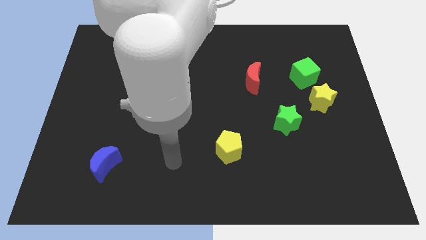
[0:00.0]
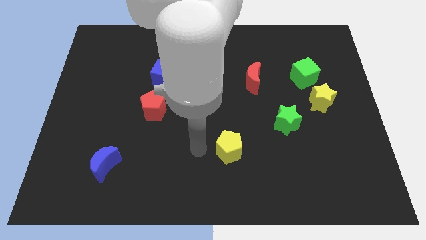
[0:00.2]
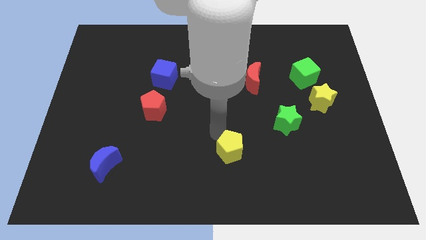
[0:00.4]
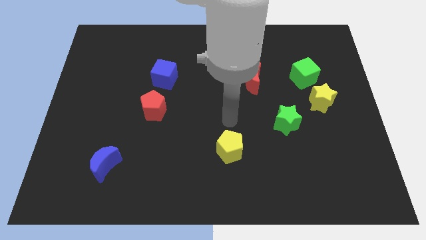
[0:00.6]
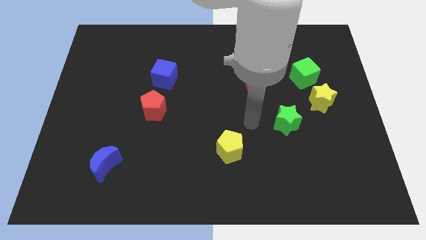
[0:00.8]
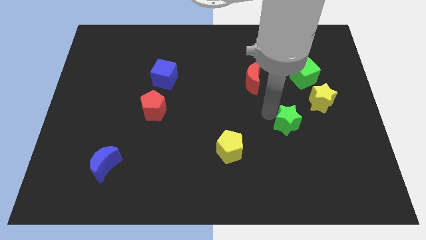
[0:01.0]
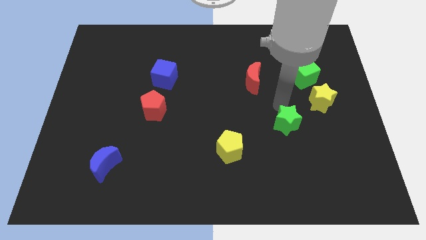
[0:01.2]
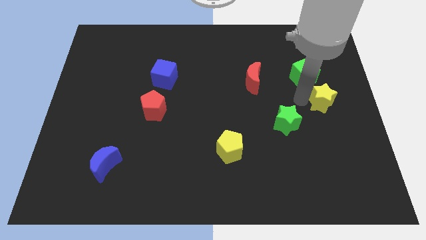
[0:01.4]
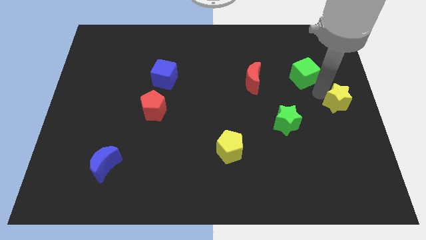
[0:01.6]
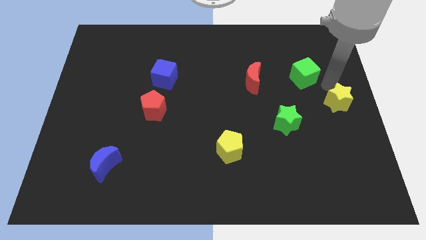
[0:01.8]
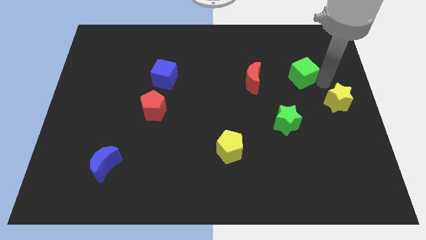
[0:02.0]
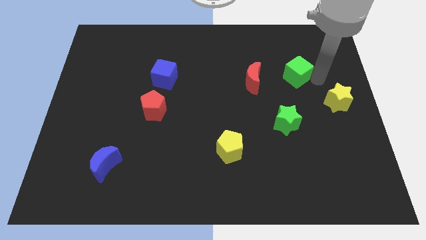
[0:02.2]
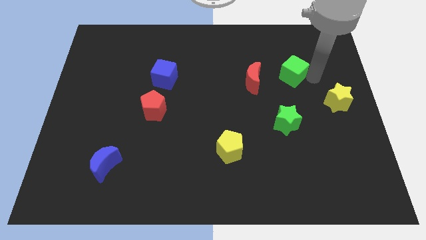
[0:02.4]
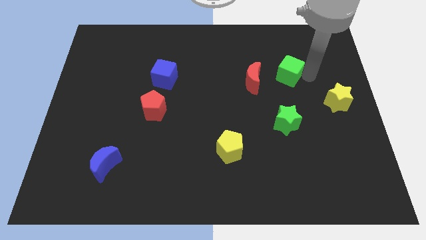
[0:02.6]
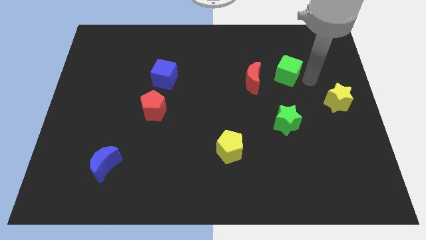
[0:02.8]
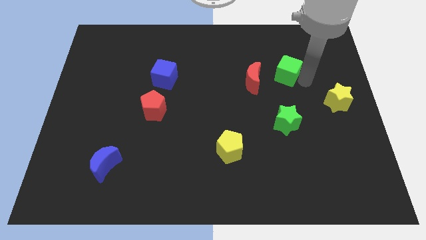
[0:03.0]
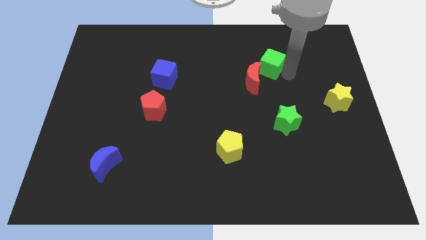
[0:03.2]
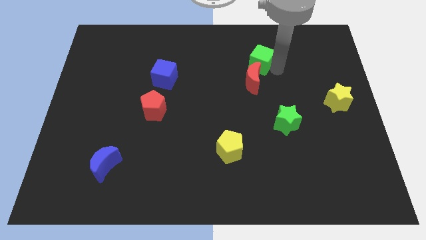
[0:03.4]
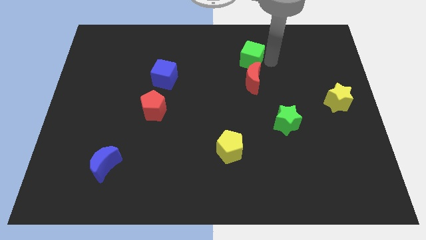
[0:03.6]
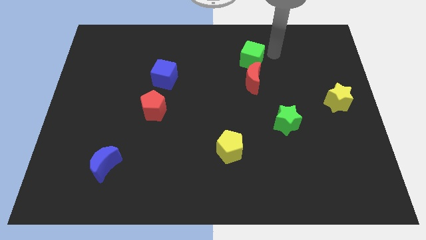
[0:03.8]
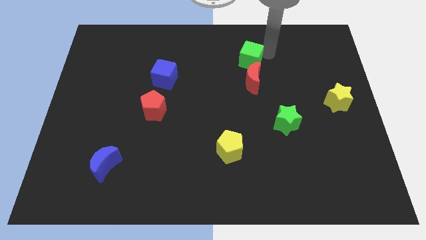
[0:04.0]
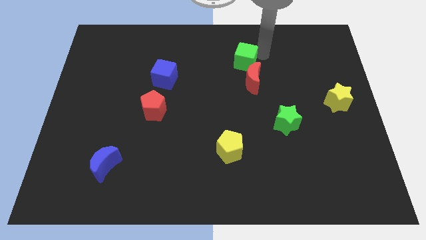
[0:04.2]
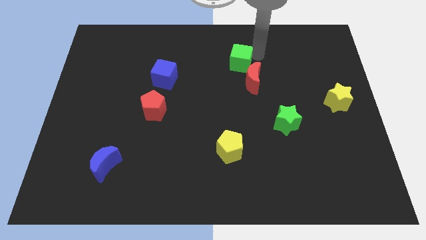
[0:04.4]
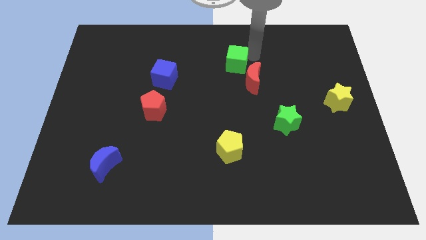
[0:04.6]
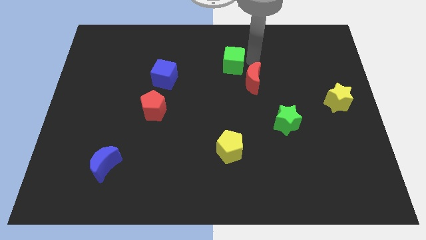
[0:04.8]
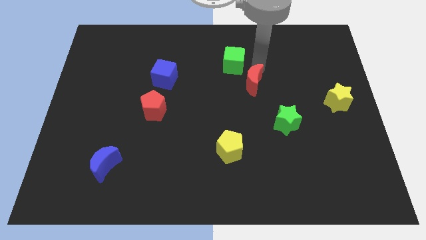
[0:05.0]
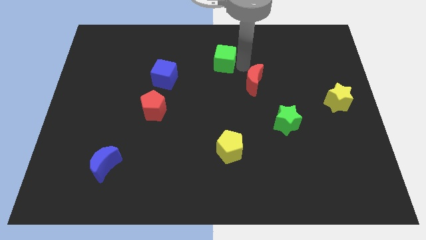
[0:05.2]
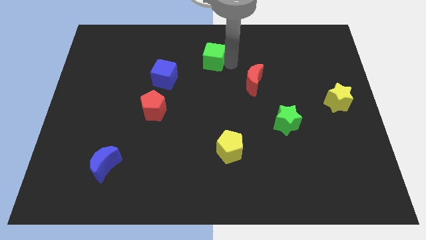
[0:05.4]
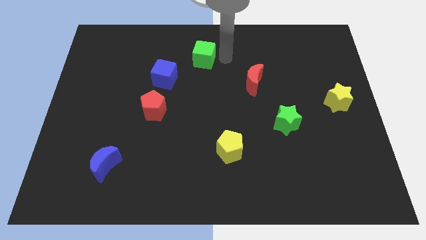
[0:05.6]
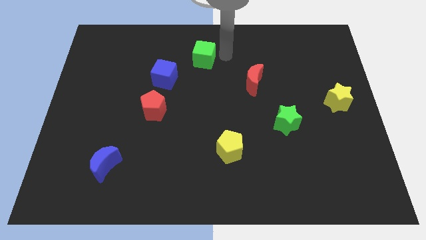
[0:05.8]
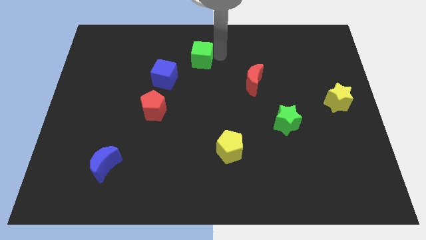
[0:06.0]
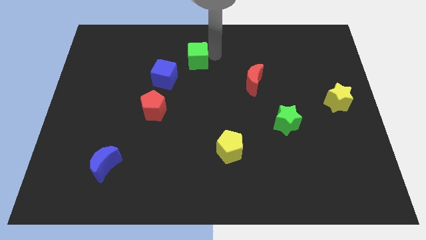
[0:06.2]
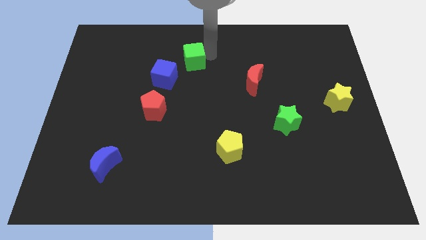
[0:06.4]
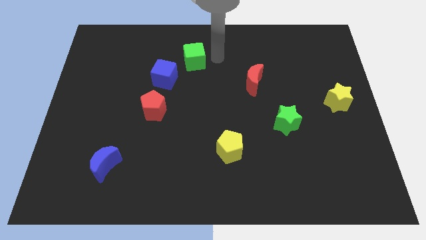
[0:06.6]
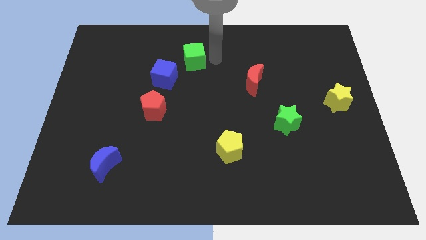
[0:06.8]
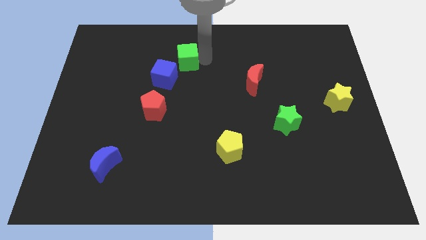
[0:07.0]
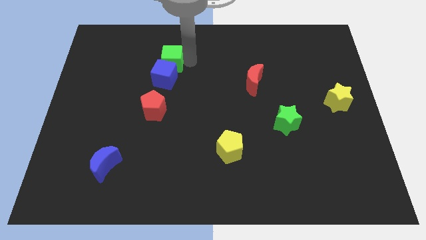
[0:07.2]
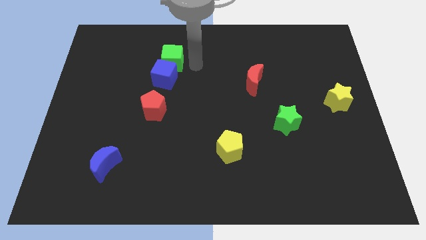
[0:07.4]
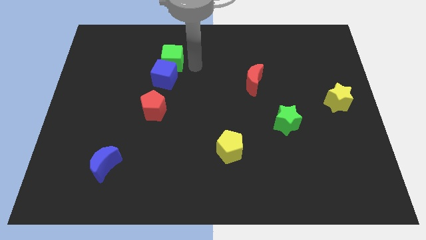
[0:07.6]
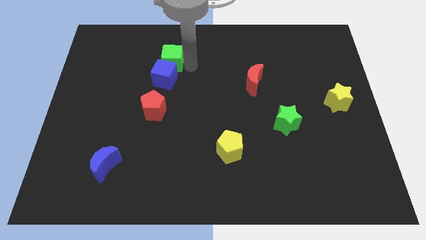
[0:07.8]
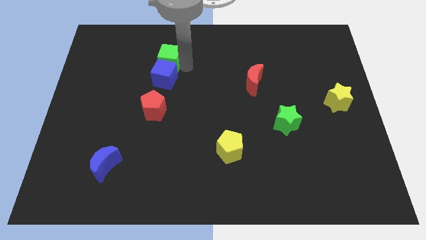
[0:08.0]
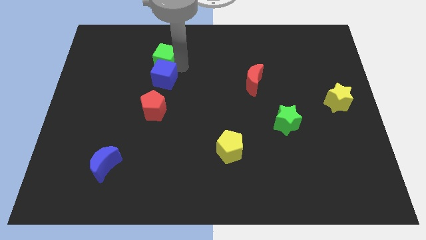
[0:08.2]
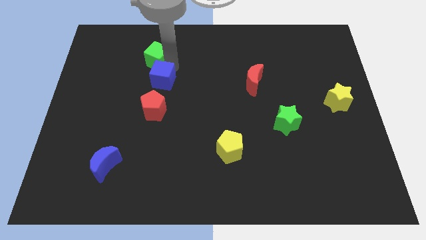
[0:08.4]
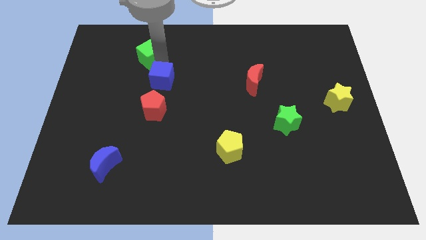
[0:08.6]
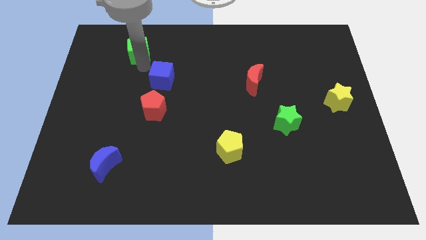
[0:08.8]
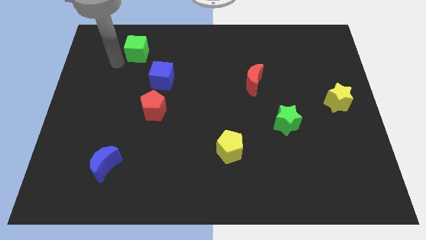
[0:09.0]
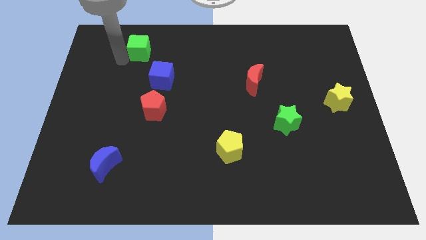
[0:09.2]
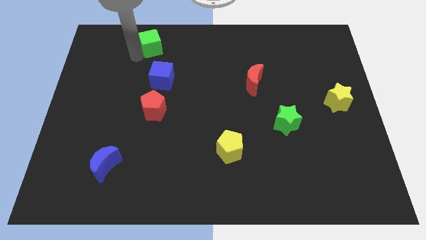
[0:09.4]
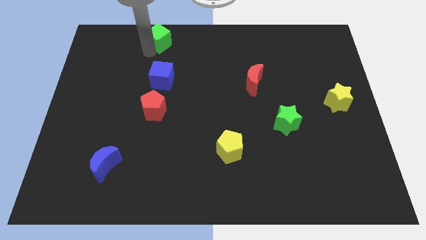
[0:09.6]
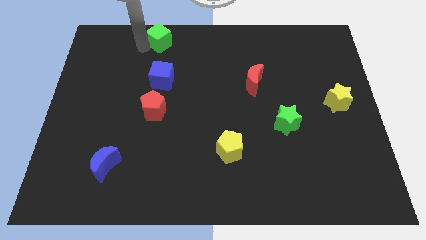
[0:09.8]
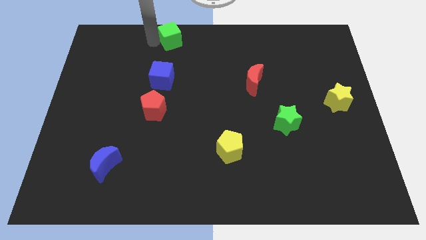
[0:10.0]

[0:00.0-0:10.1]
push the green cube to the towards your base

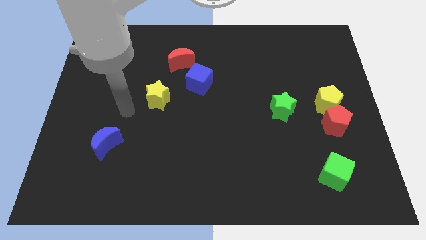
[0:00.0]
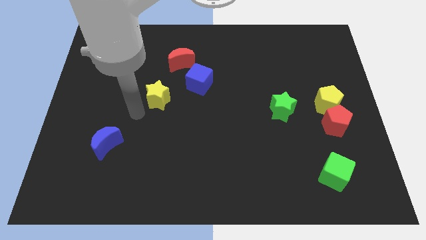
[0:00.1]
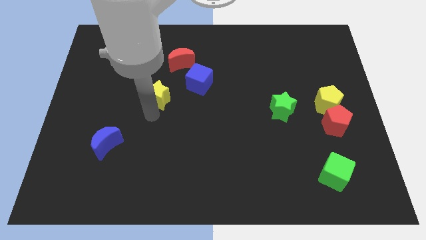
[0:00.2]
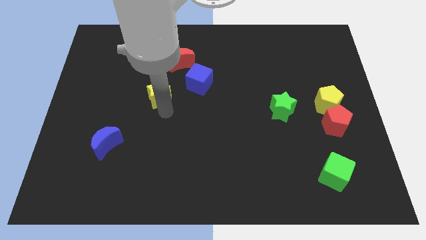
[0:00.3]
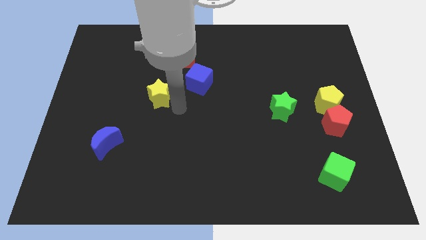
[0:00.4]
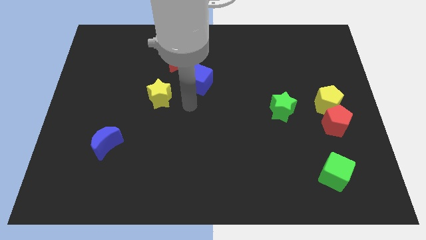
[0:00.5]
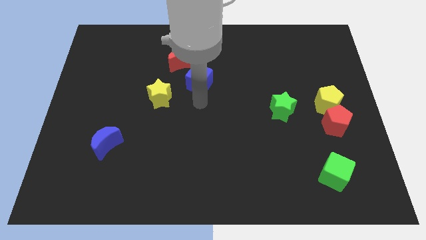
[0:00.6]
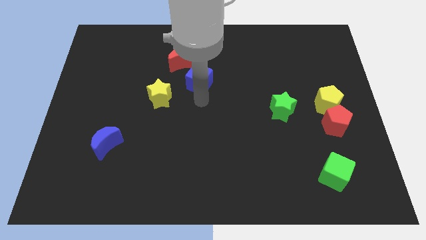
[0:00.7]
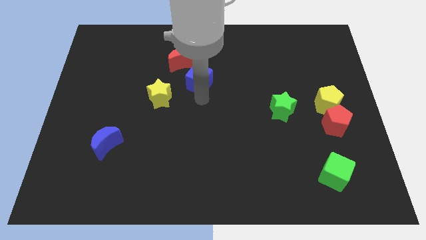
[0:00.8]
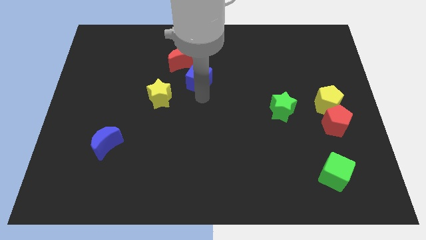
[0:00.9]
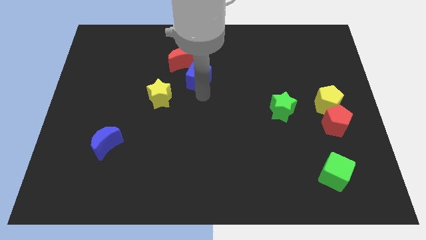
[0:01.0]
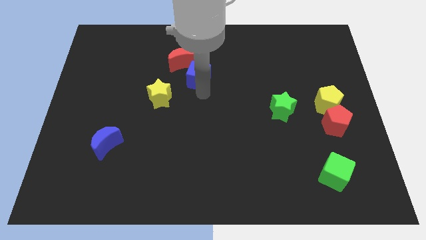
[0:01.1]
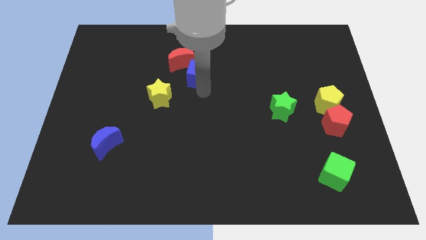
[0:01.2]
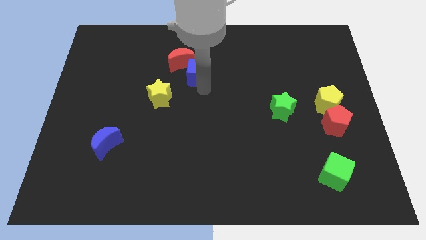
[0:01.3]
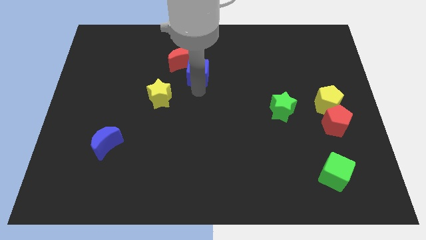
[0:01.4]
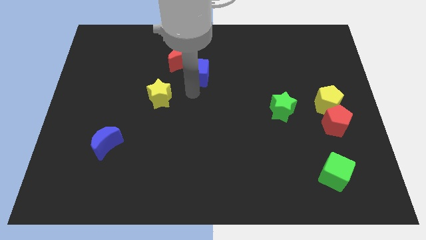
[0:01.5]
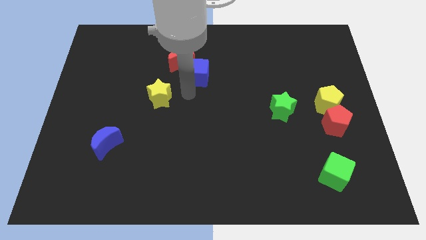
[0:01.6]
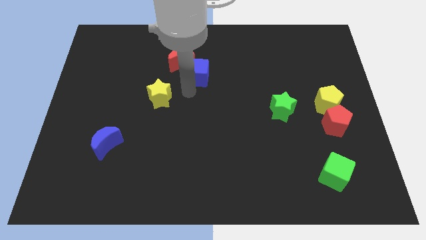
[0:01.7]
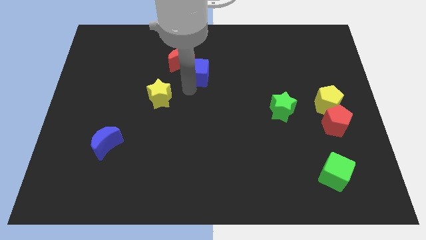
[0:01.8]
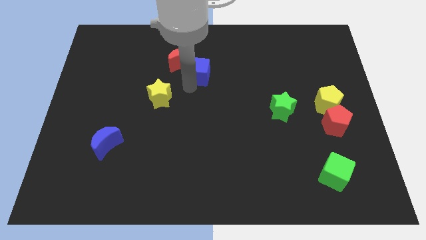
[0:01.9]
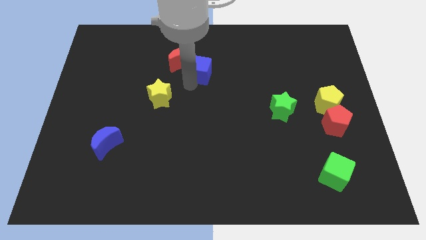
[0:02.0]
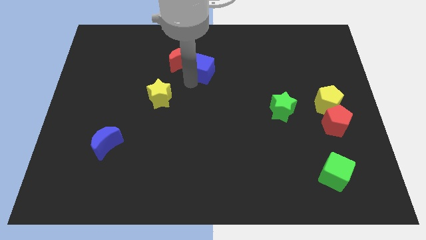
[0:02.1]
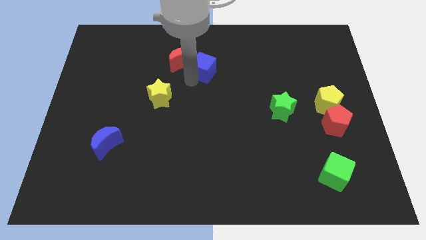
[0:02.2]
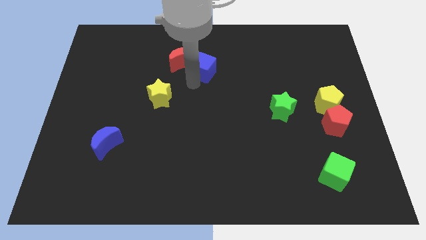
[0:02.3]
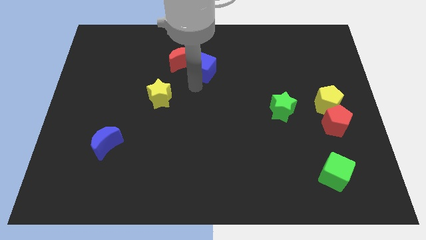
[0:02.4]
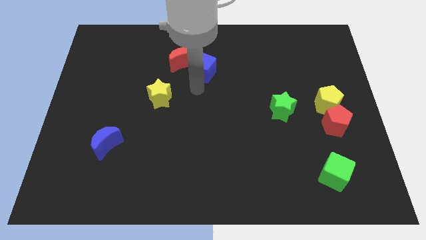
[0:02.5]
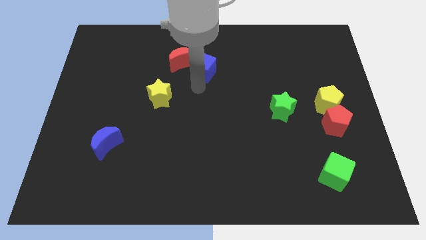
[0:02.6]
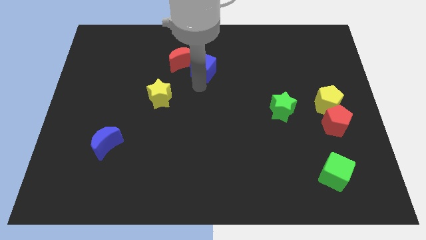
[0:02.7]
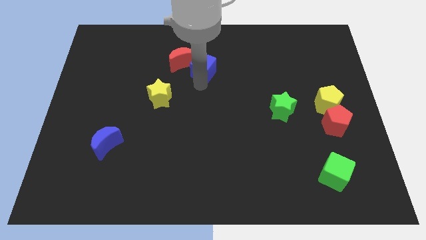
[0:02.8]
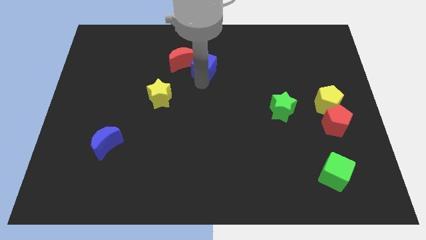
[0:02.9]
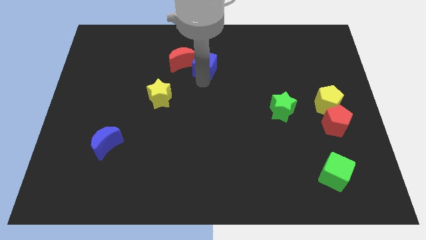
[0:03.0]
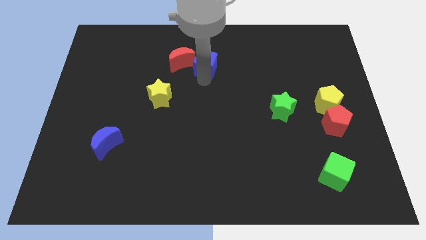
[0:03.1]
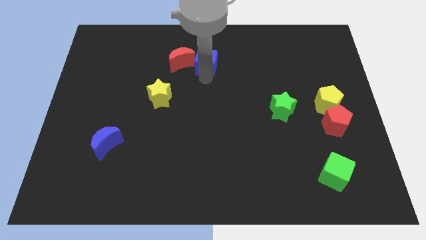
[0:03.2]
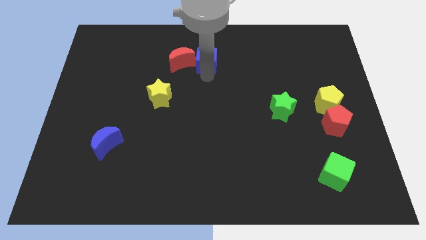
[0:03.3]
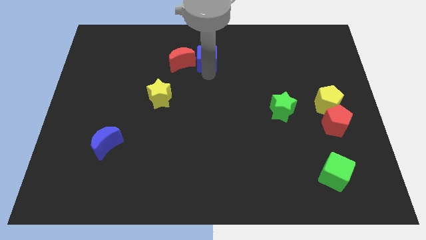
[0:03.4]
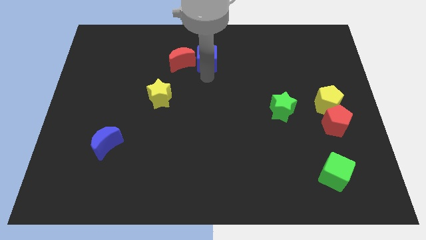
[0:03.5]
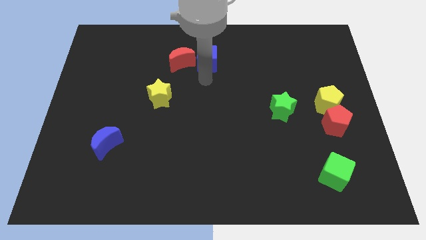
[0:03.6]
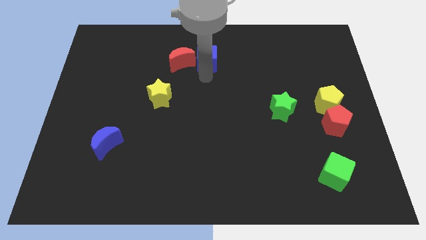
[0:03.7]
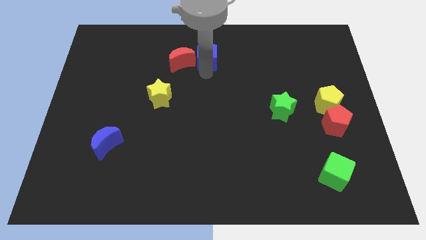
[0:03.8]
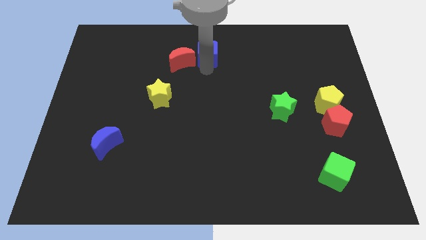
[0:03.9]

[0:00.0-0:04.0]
move the blue cube to the towards your base
